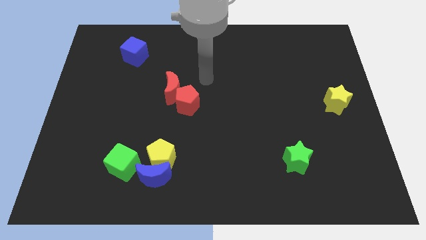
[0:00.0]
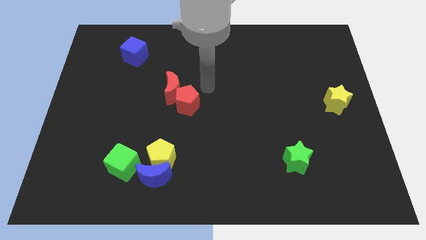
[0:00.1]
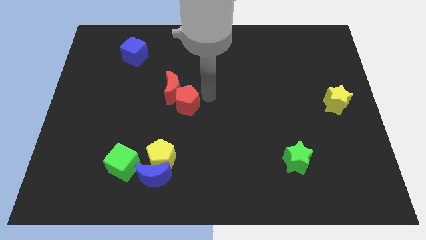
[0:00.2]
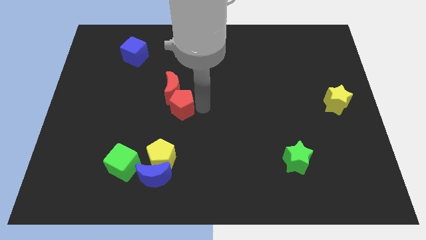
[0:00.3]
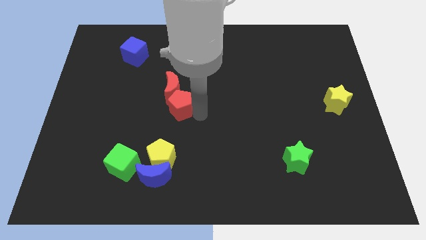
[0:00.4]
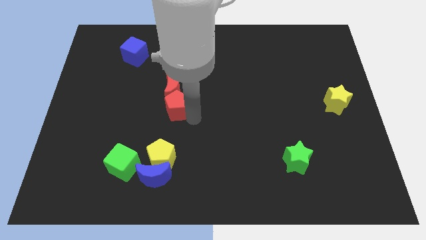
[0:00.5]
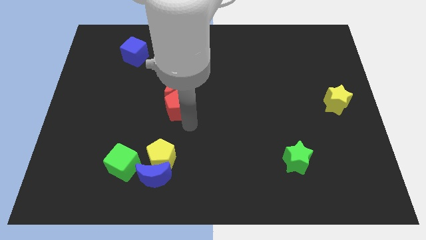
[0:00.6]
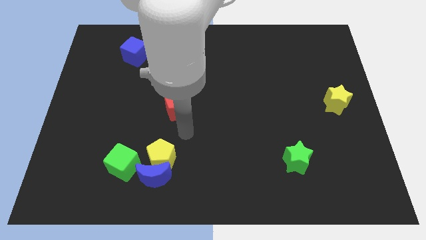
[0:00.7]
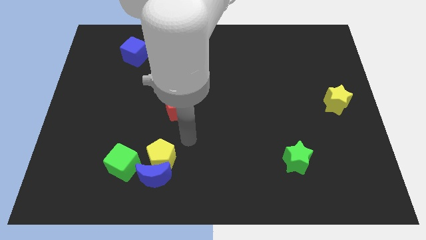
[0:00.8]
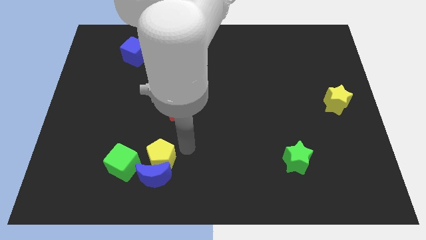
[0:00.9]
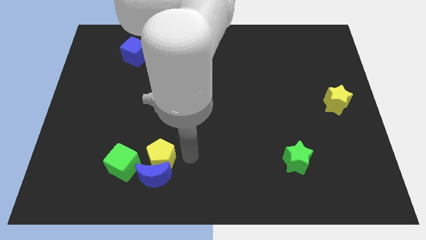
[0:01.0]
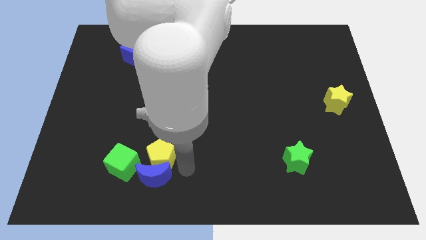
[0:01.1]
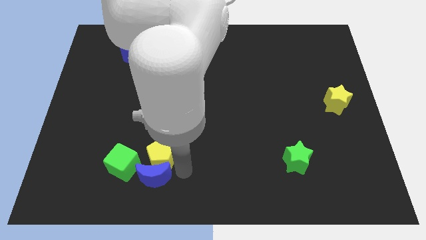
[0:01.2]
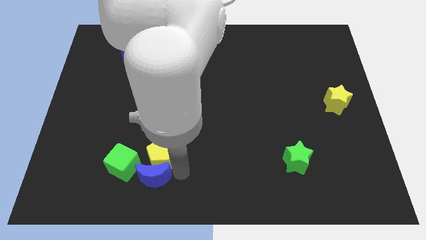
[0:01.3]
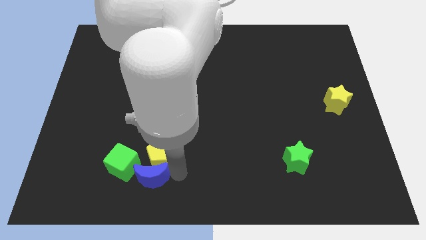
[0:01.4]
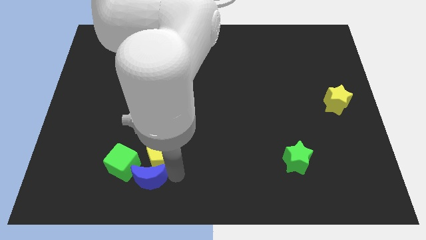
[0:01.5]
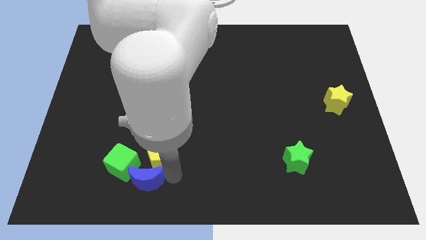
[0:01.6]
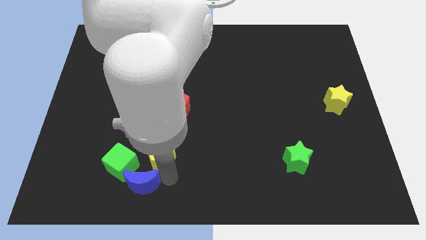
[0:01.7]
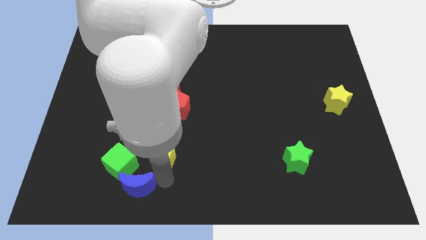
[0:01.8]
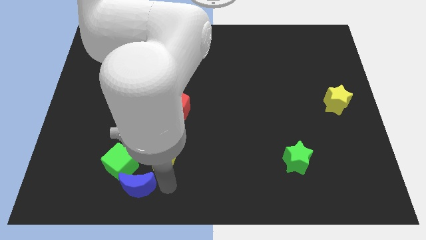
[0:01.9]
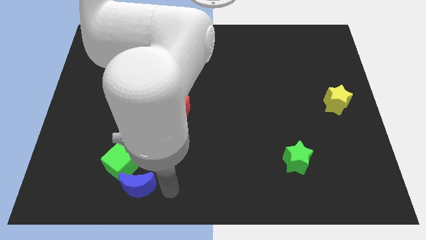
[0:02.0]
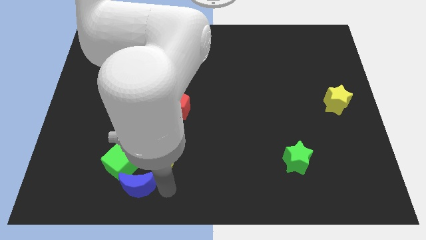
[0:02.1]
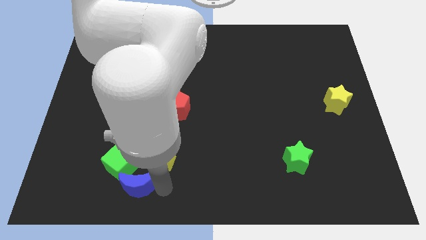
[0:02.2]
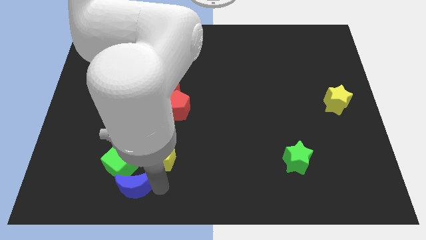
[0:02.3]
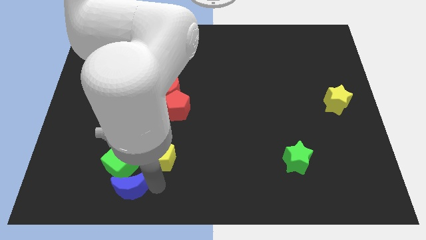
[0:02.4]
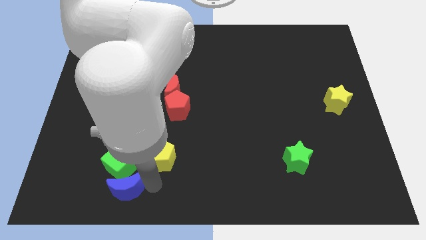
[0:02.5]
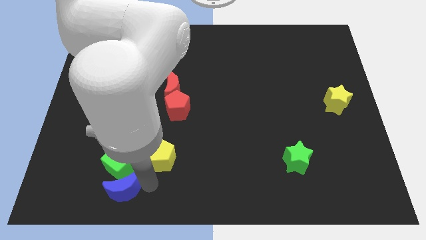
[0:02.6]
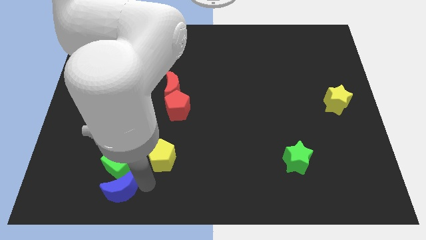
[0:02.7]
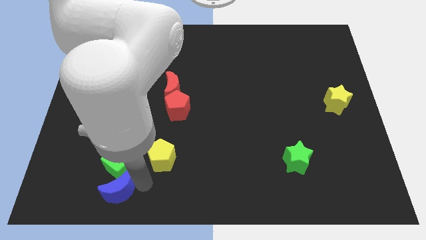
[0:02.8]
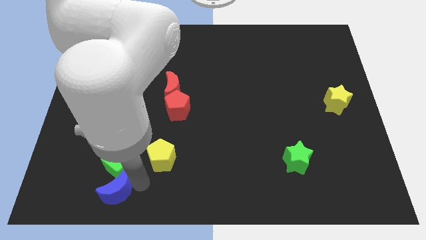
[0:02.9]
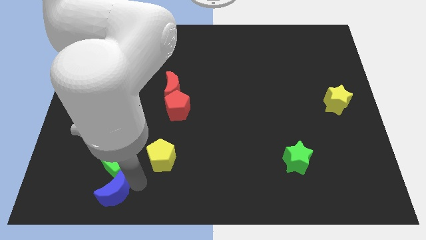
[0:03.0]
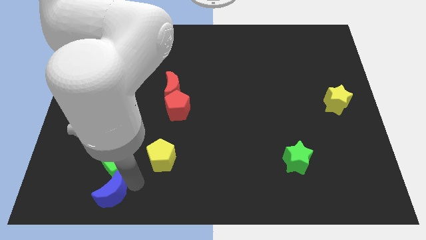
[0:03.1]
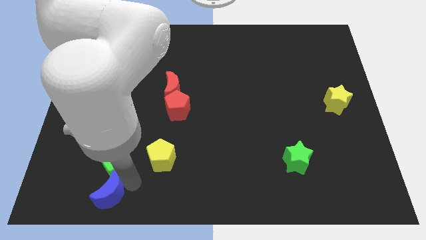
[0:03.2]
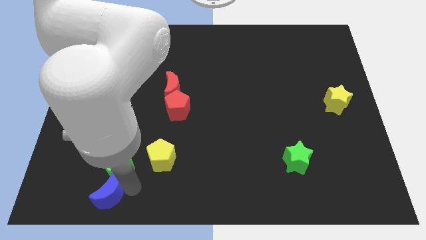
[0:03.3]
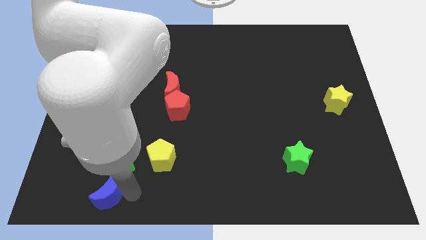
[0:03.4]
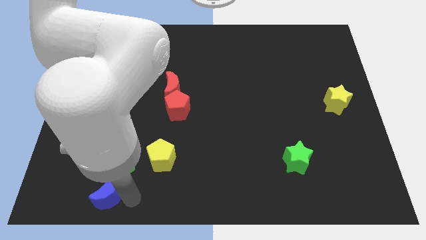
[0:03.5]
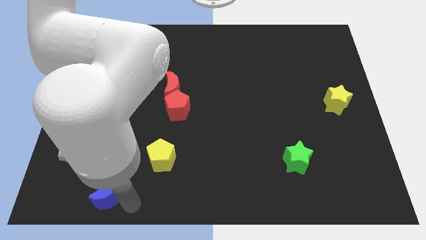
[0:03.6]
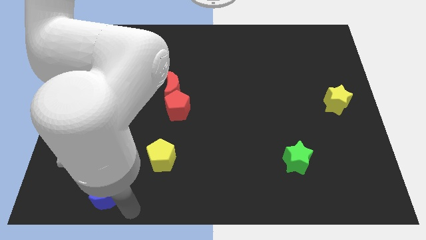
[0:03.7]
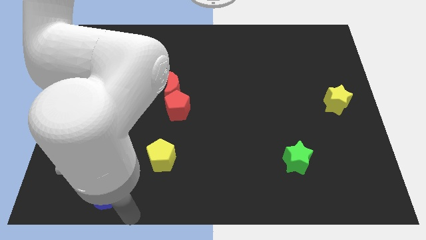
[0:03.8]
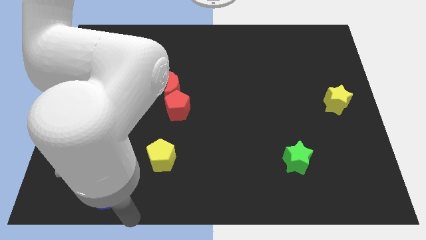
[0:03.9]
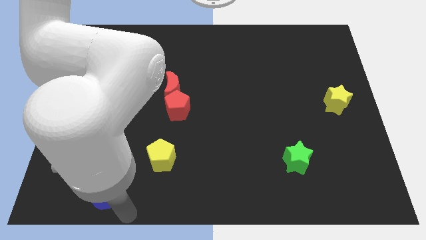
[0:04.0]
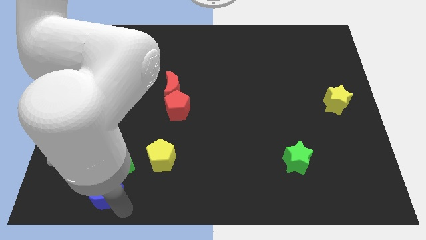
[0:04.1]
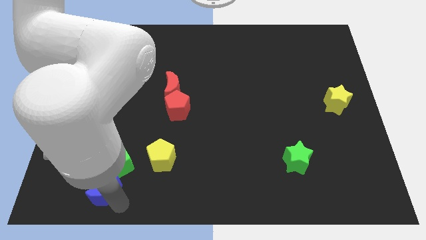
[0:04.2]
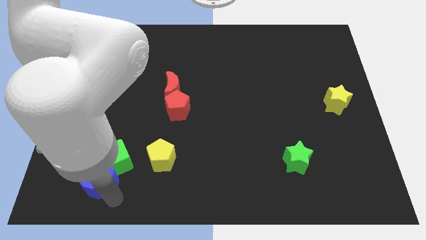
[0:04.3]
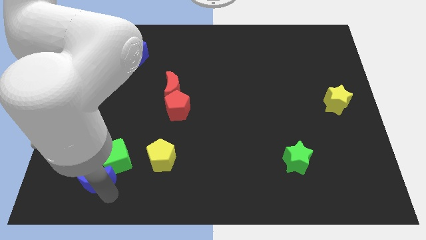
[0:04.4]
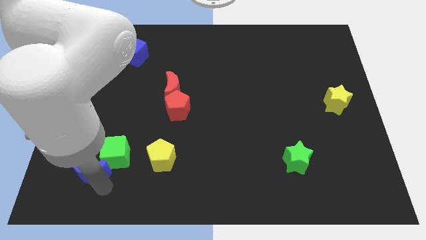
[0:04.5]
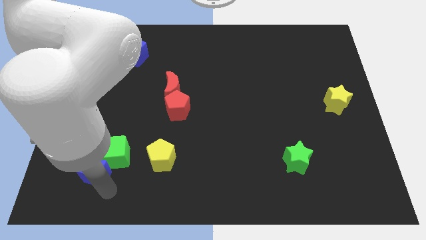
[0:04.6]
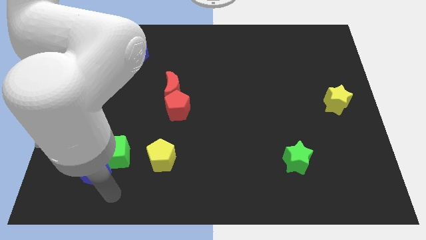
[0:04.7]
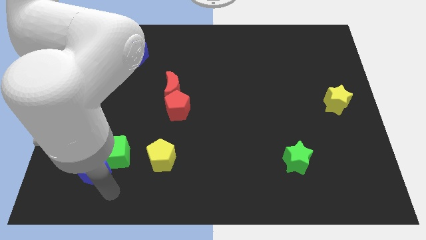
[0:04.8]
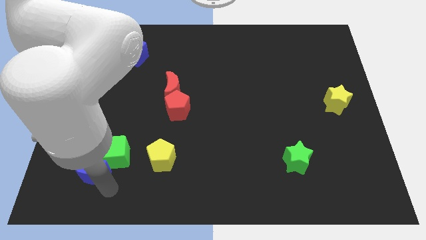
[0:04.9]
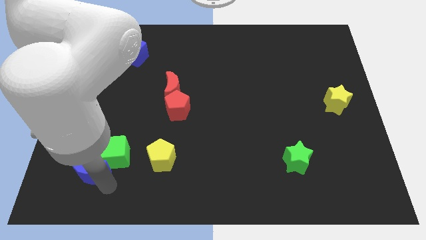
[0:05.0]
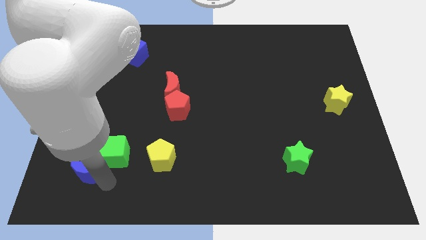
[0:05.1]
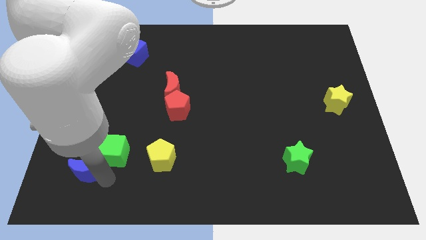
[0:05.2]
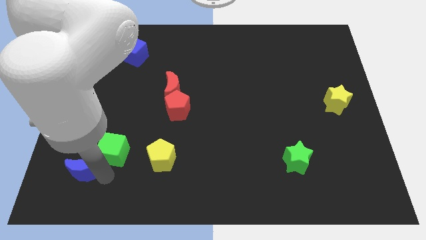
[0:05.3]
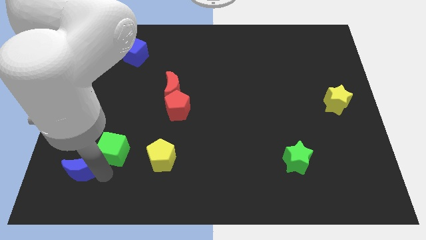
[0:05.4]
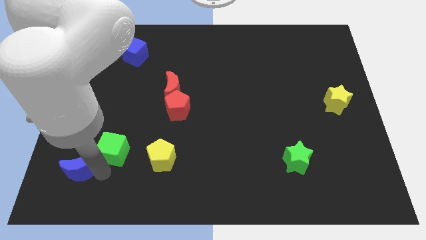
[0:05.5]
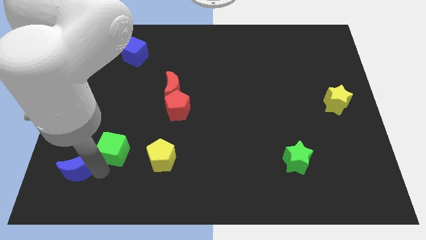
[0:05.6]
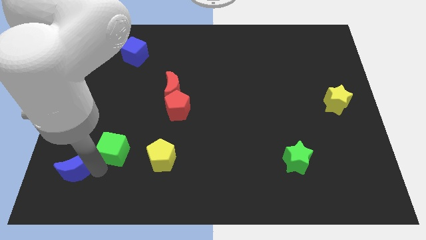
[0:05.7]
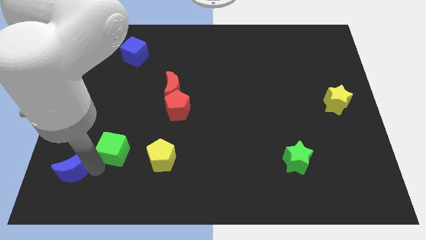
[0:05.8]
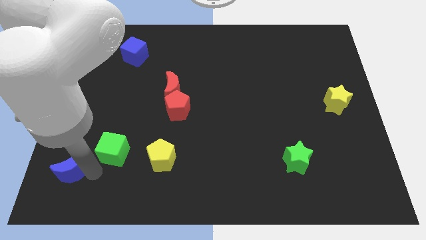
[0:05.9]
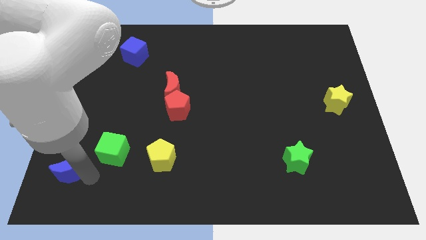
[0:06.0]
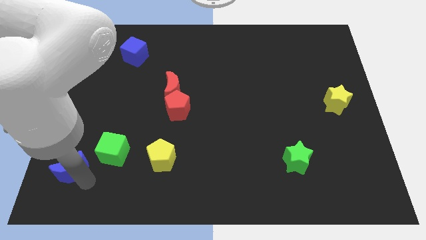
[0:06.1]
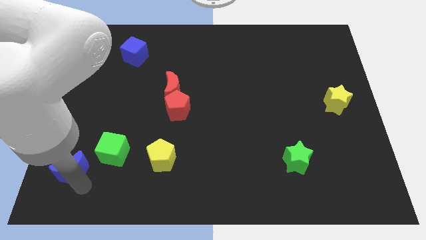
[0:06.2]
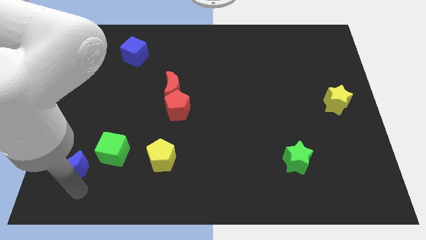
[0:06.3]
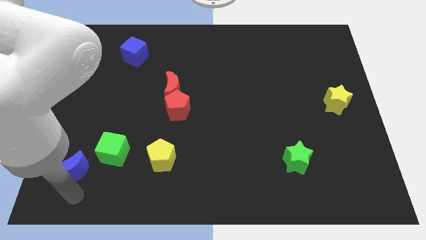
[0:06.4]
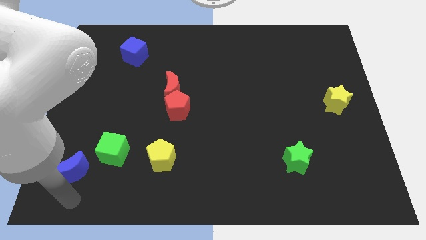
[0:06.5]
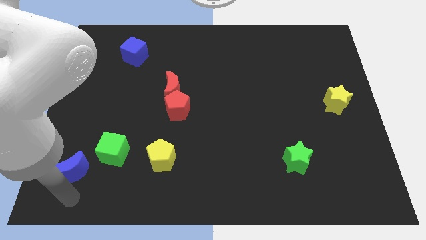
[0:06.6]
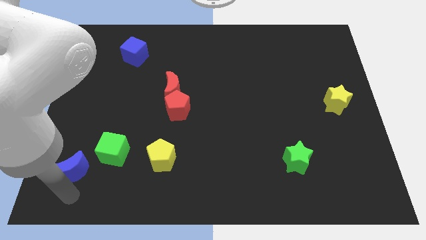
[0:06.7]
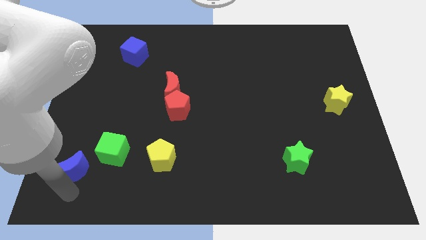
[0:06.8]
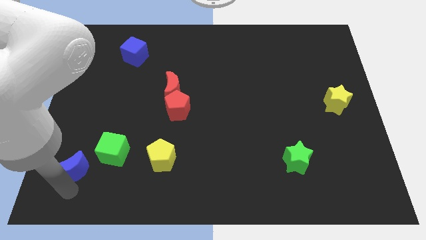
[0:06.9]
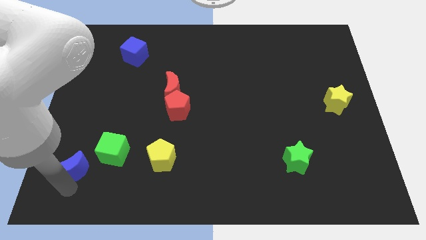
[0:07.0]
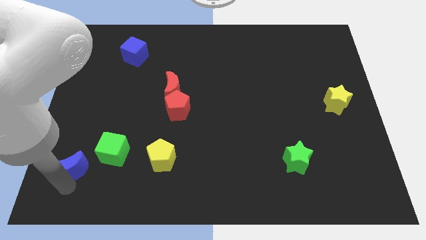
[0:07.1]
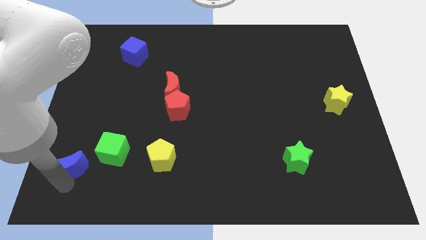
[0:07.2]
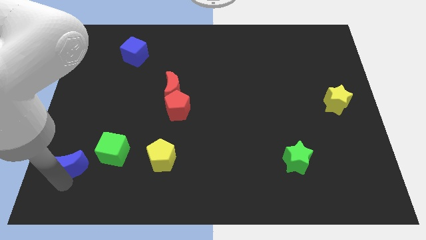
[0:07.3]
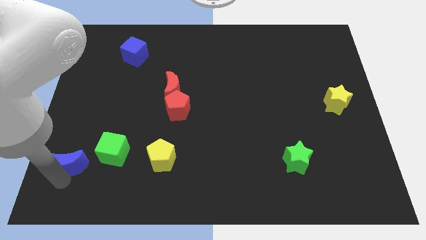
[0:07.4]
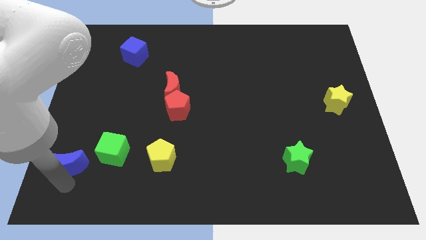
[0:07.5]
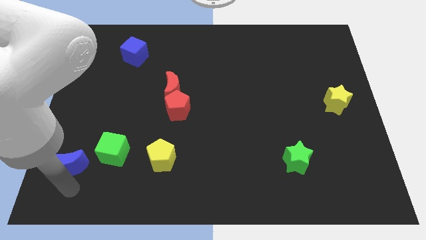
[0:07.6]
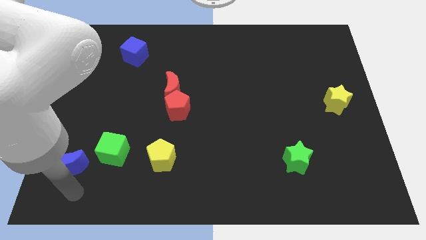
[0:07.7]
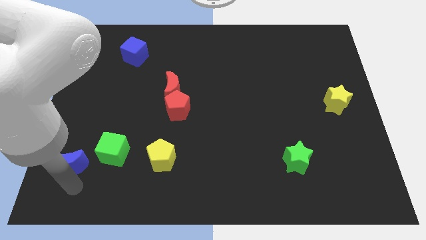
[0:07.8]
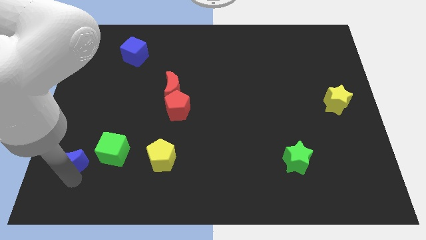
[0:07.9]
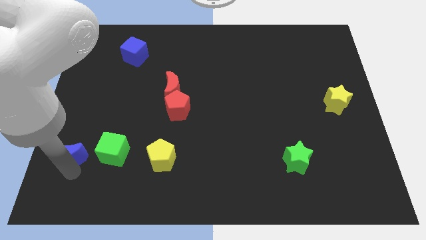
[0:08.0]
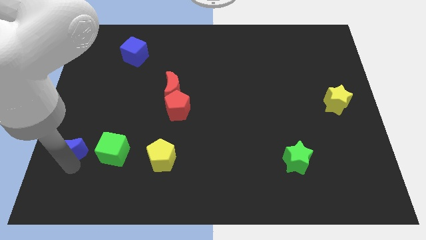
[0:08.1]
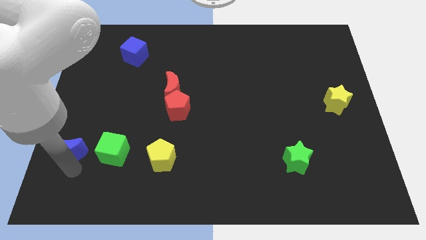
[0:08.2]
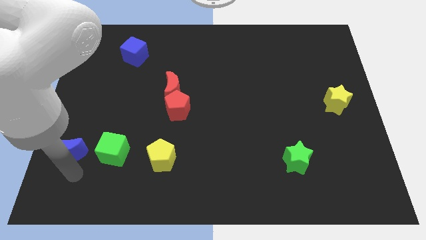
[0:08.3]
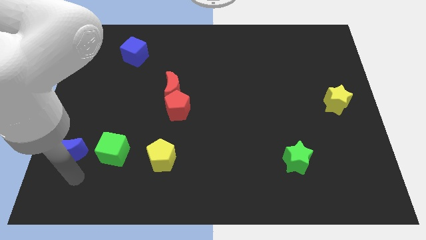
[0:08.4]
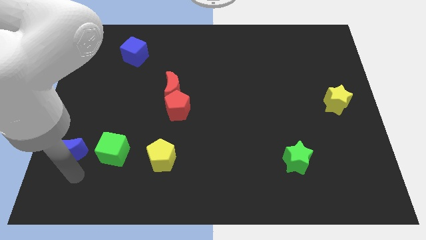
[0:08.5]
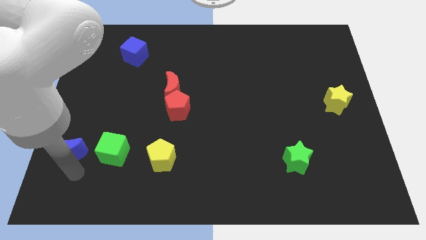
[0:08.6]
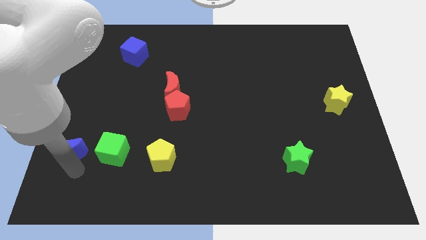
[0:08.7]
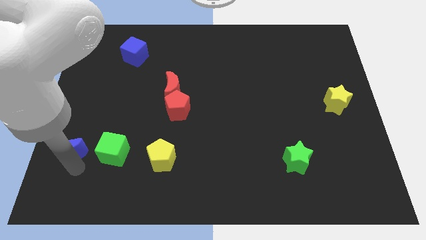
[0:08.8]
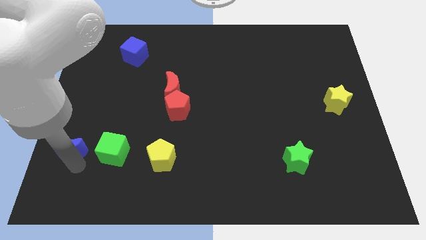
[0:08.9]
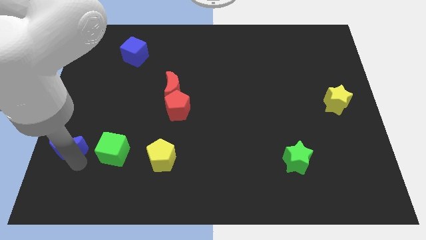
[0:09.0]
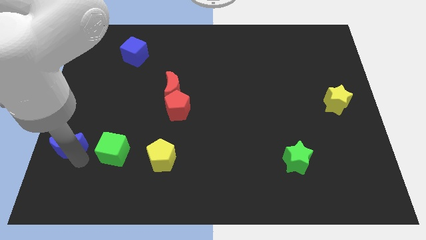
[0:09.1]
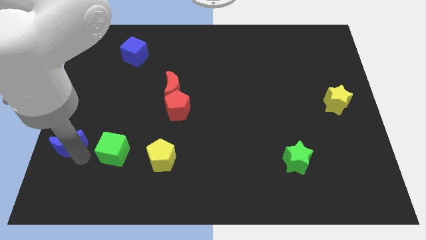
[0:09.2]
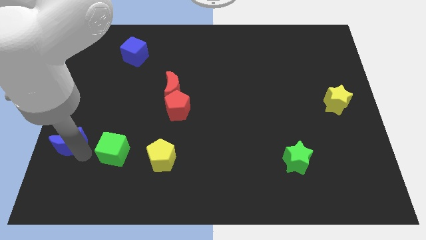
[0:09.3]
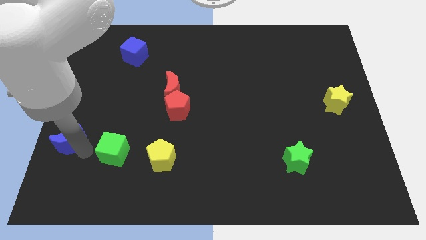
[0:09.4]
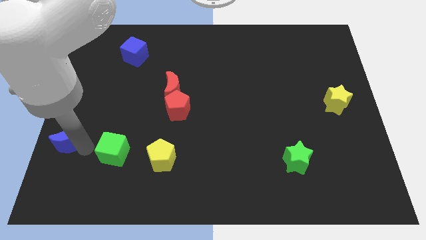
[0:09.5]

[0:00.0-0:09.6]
put the blue moon to the left side
